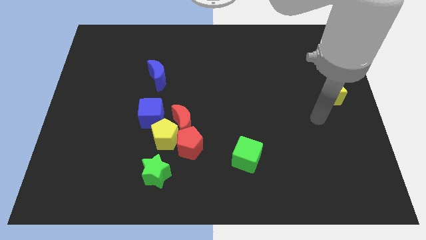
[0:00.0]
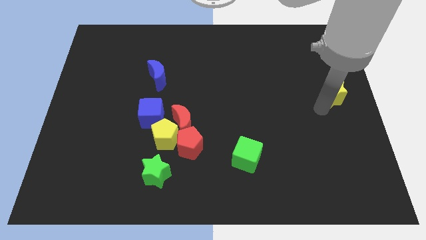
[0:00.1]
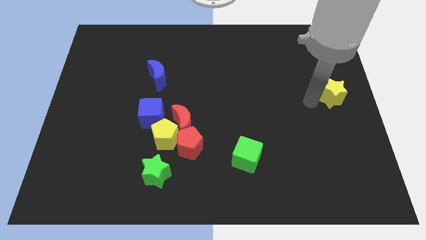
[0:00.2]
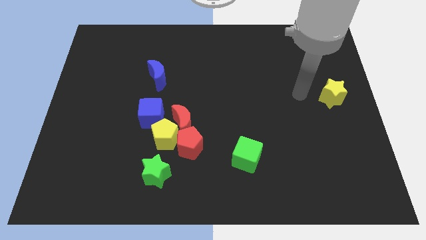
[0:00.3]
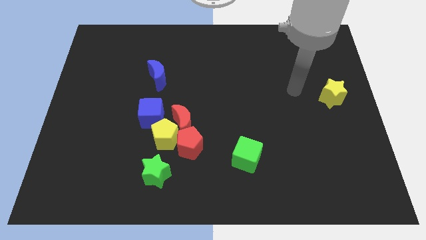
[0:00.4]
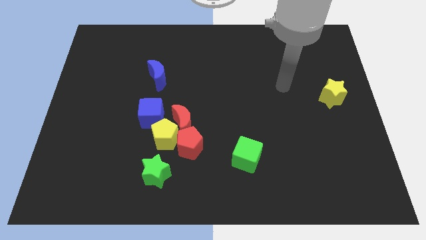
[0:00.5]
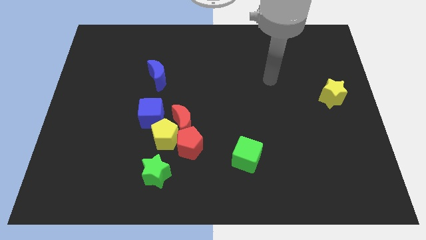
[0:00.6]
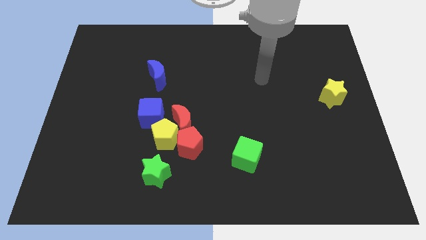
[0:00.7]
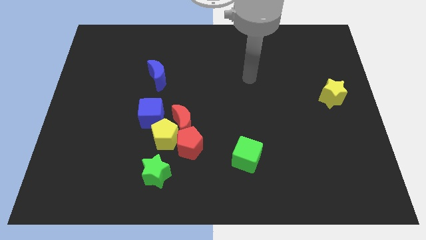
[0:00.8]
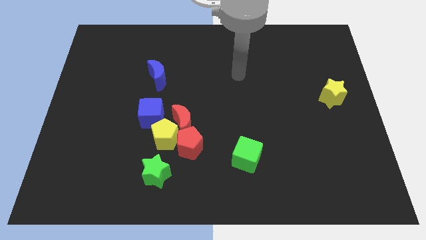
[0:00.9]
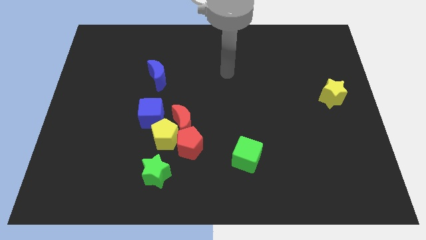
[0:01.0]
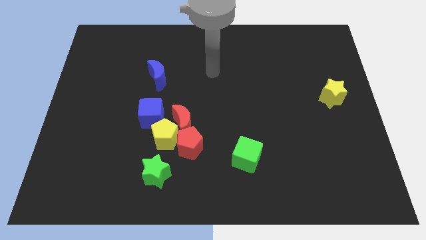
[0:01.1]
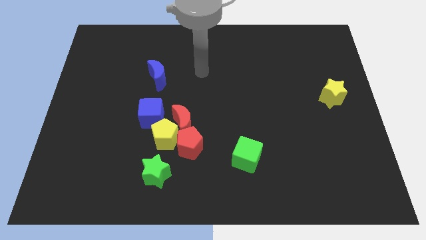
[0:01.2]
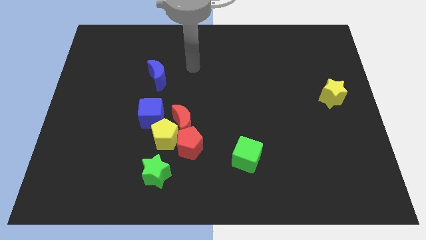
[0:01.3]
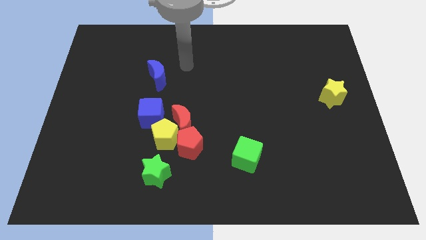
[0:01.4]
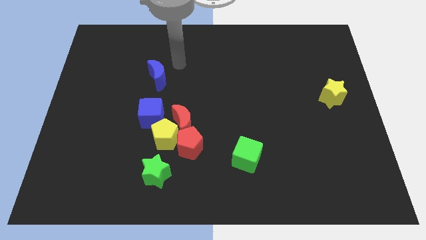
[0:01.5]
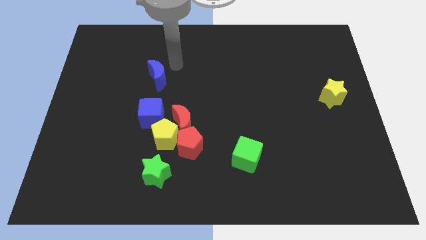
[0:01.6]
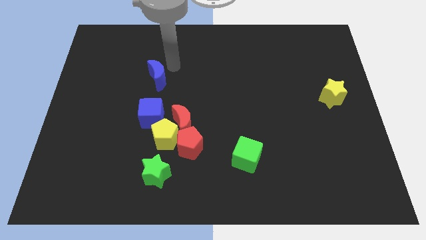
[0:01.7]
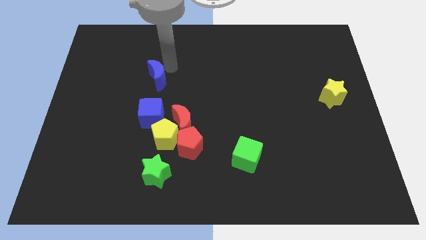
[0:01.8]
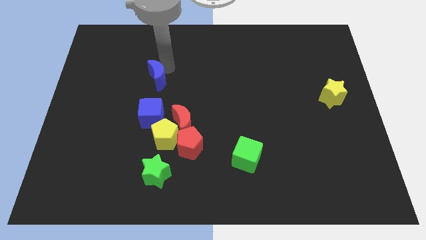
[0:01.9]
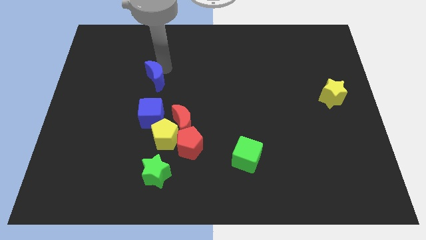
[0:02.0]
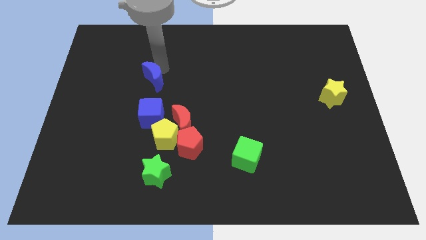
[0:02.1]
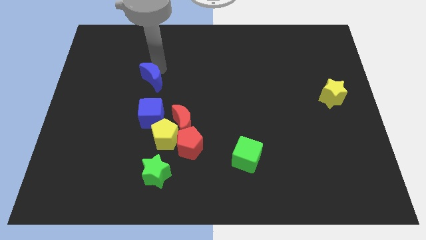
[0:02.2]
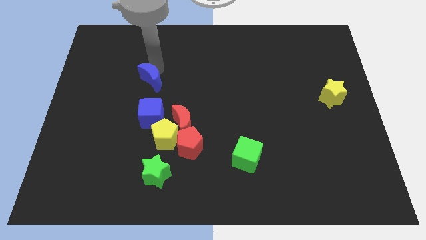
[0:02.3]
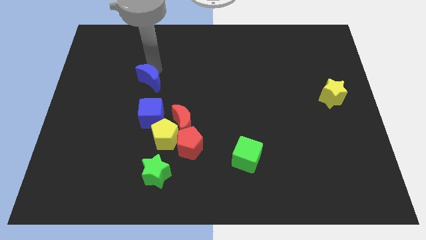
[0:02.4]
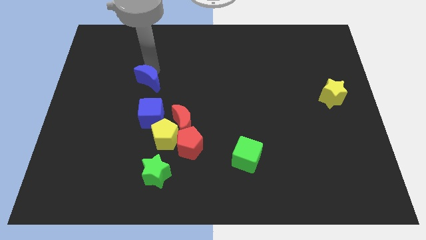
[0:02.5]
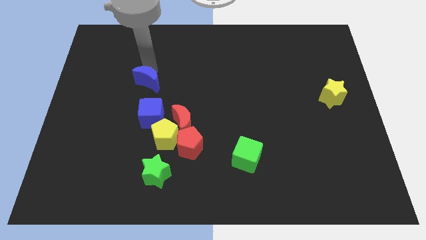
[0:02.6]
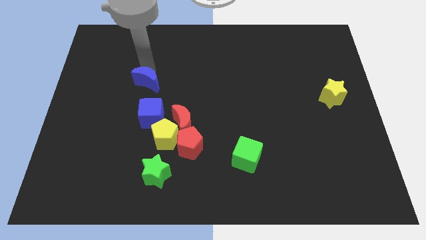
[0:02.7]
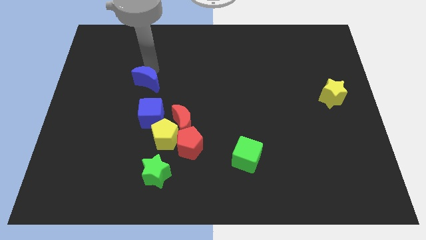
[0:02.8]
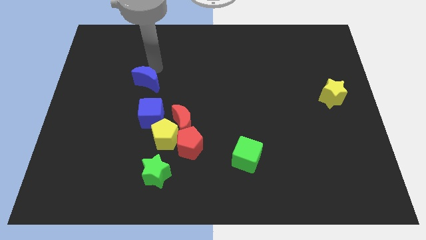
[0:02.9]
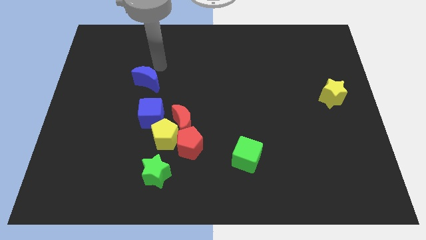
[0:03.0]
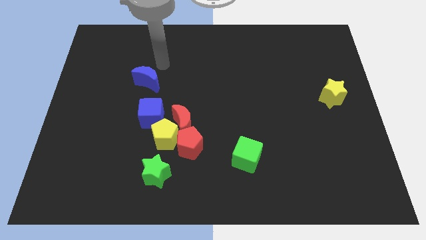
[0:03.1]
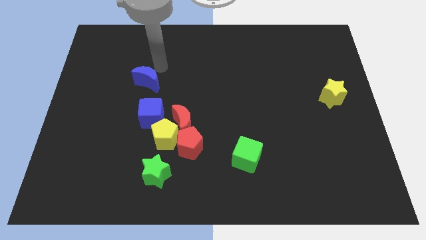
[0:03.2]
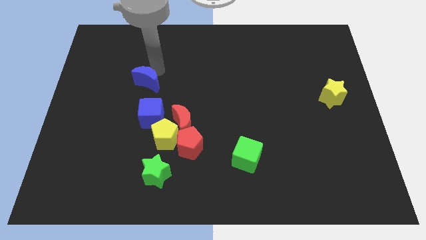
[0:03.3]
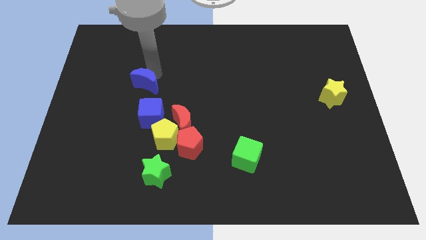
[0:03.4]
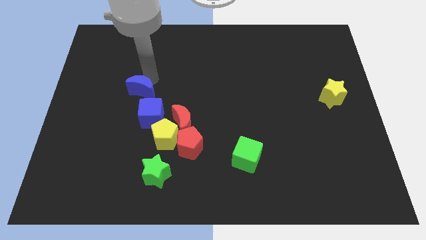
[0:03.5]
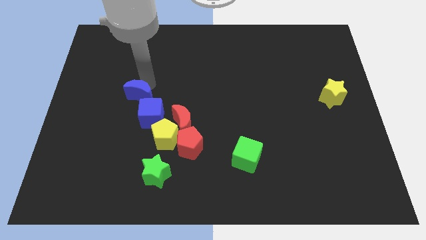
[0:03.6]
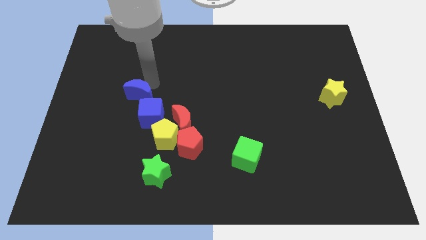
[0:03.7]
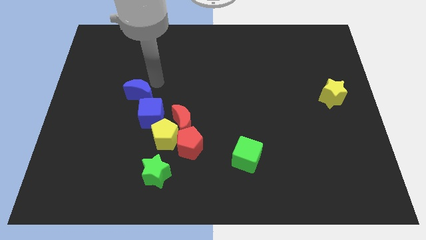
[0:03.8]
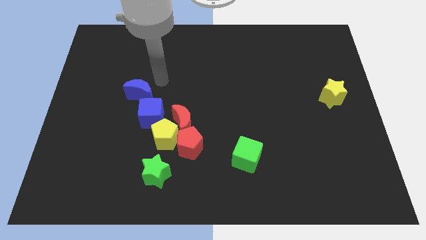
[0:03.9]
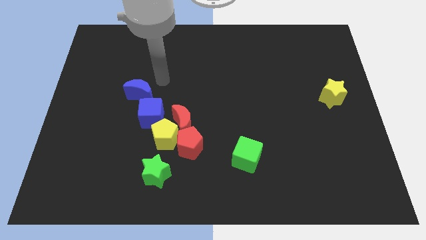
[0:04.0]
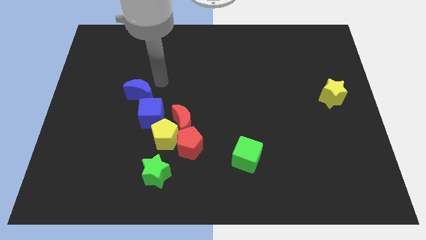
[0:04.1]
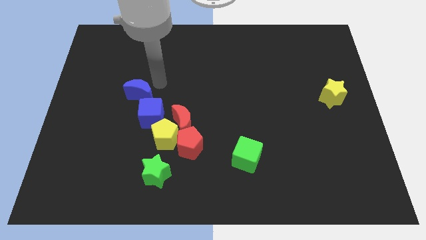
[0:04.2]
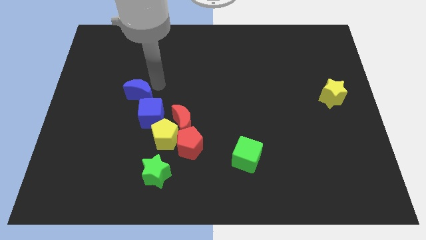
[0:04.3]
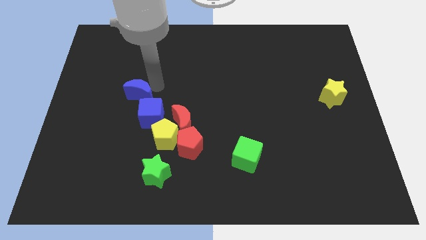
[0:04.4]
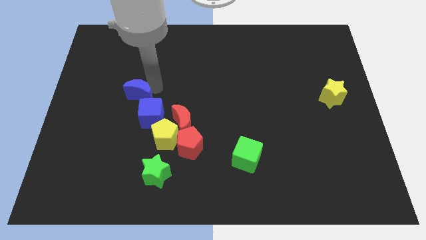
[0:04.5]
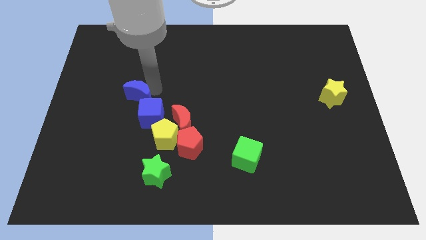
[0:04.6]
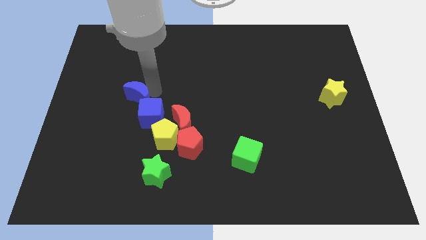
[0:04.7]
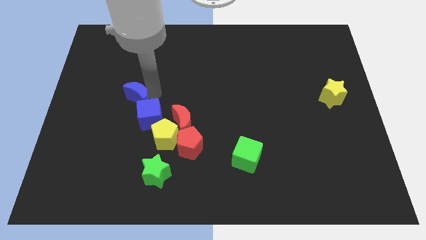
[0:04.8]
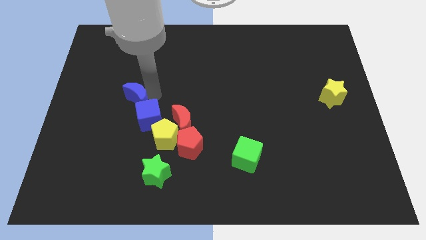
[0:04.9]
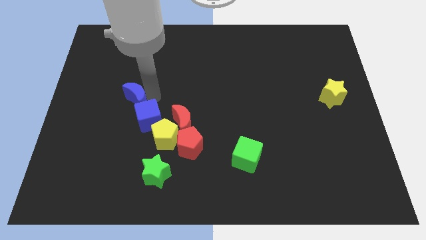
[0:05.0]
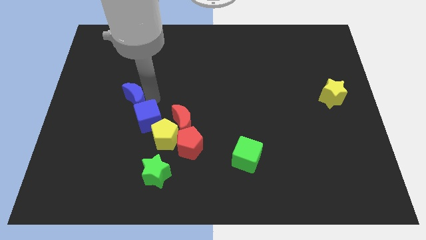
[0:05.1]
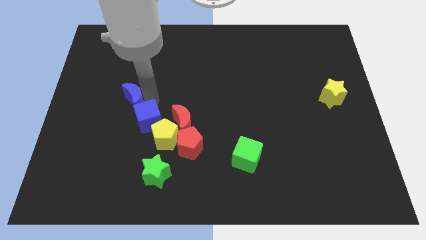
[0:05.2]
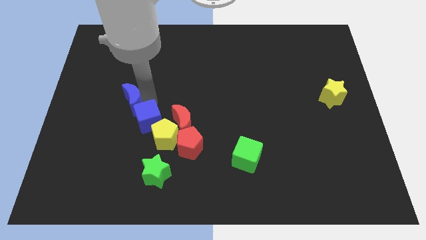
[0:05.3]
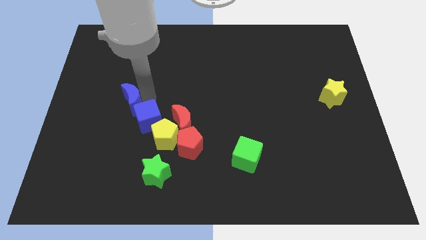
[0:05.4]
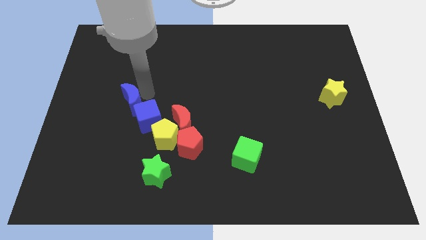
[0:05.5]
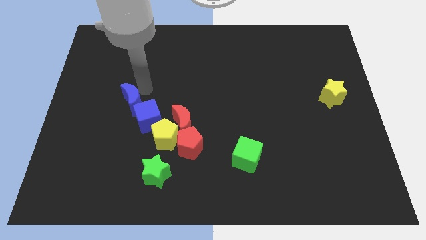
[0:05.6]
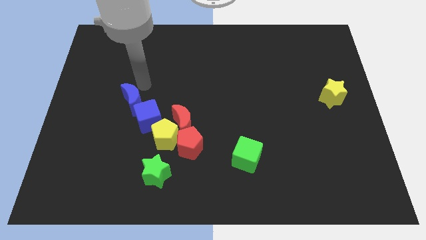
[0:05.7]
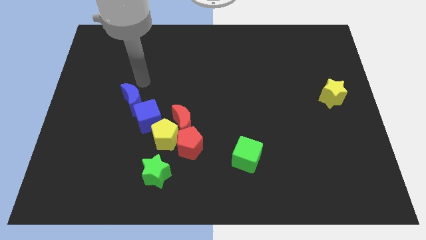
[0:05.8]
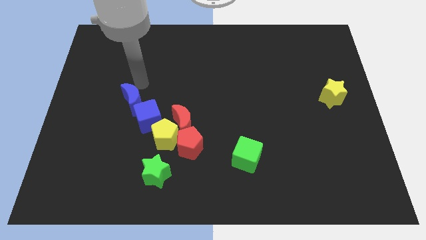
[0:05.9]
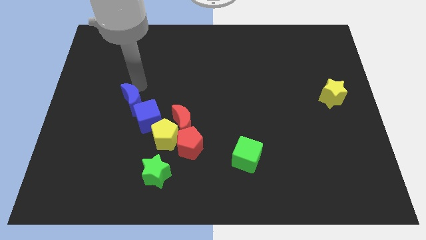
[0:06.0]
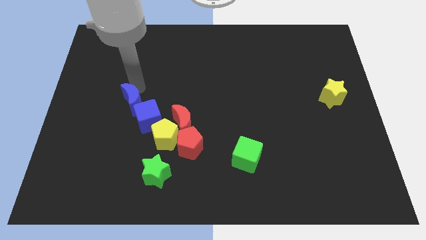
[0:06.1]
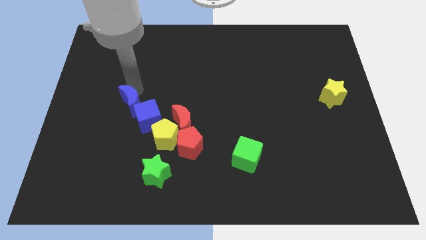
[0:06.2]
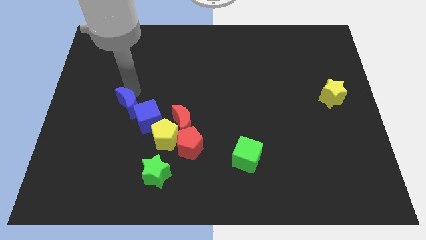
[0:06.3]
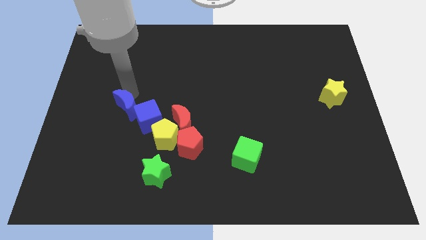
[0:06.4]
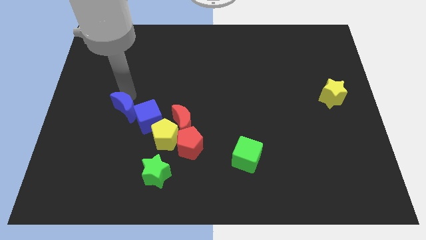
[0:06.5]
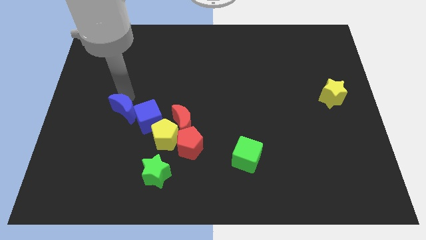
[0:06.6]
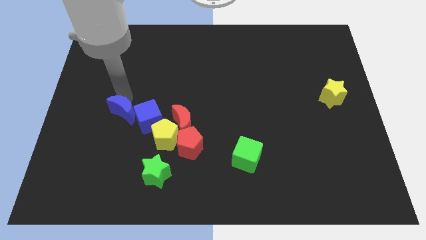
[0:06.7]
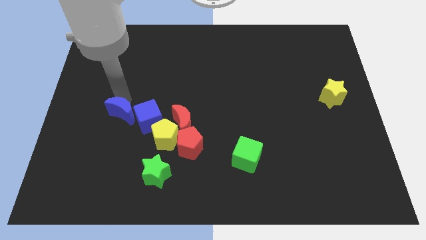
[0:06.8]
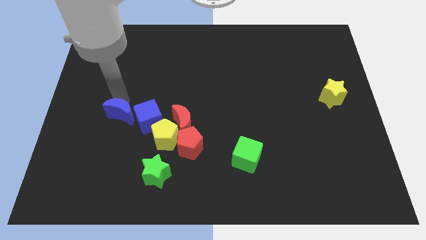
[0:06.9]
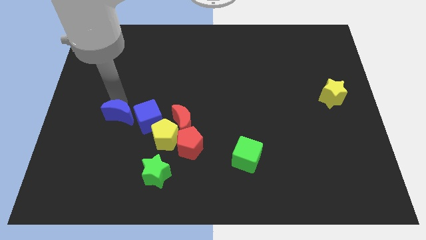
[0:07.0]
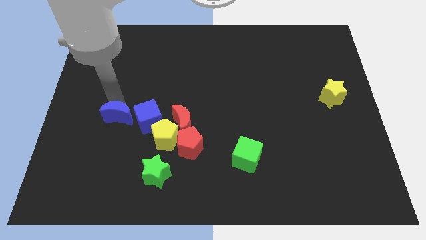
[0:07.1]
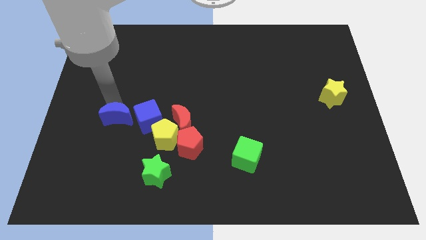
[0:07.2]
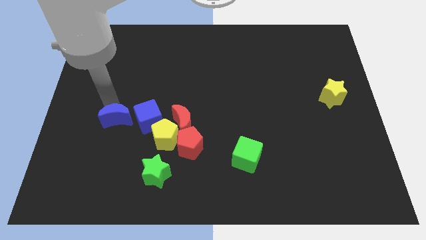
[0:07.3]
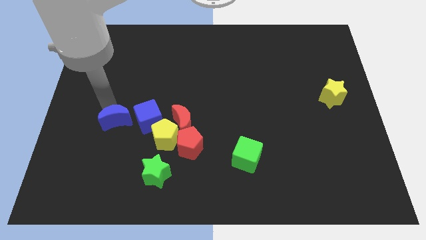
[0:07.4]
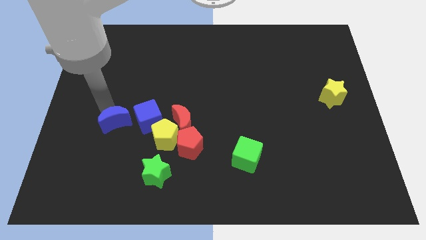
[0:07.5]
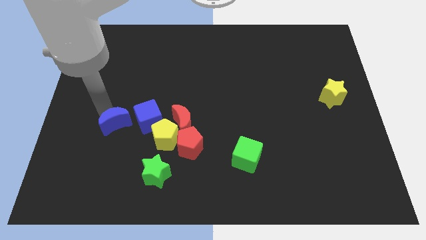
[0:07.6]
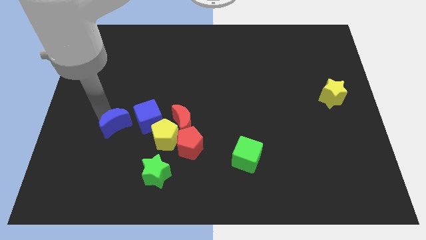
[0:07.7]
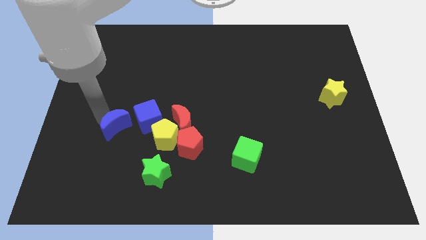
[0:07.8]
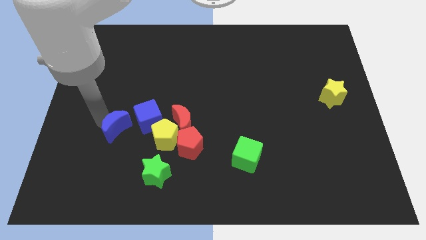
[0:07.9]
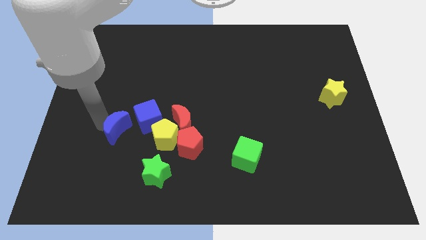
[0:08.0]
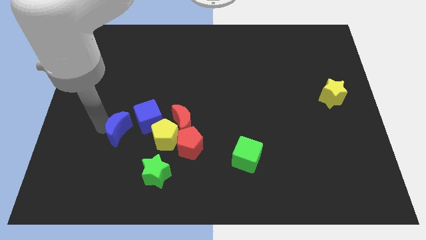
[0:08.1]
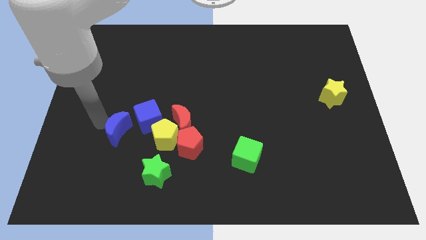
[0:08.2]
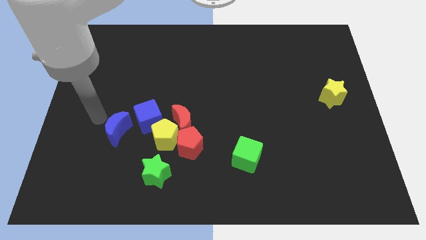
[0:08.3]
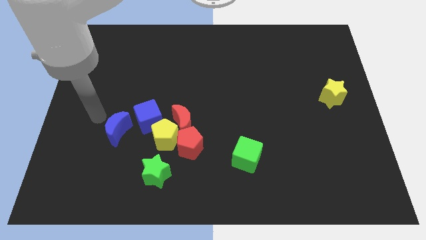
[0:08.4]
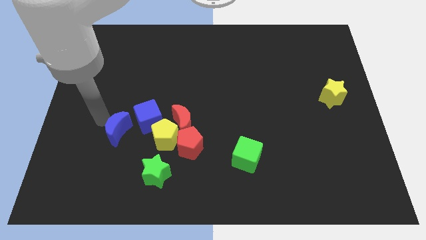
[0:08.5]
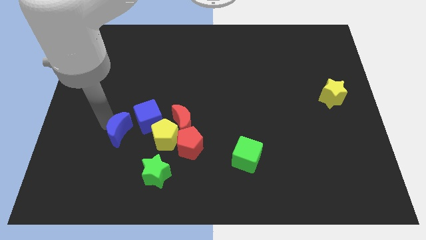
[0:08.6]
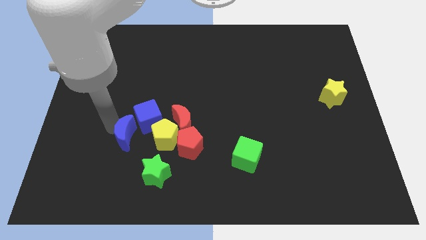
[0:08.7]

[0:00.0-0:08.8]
push the blue moon to the left of the red pentagon
